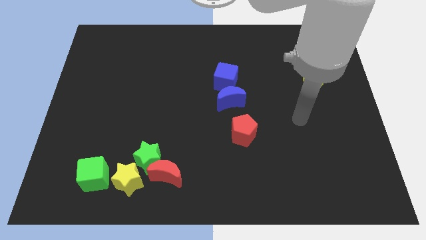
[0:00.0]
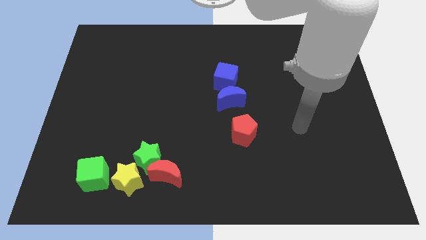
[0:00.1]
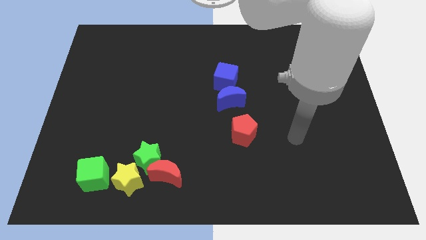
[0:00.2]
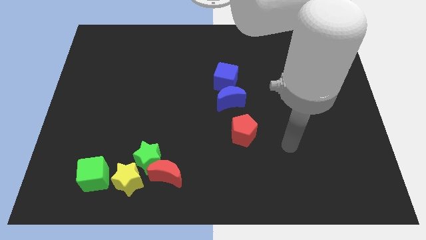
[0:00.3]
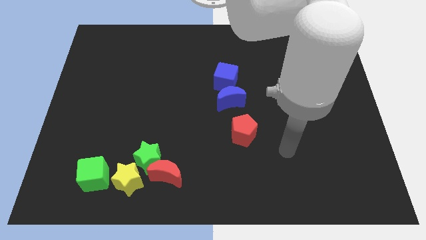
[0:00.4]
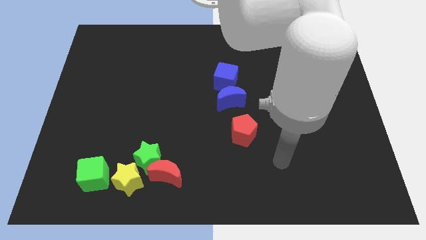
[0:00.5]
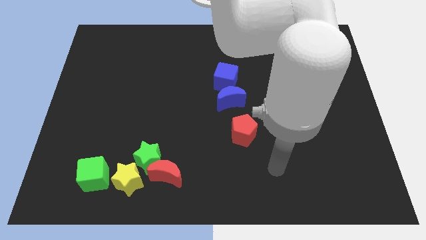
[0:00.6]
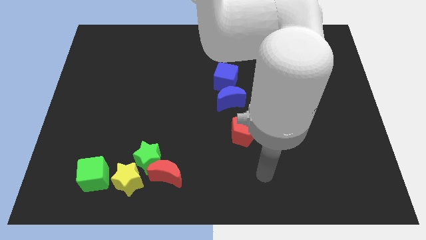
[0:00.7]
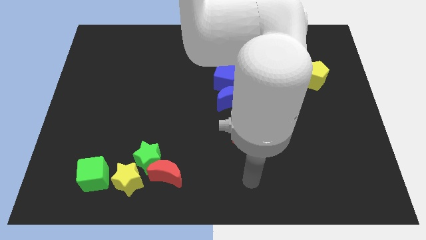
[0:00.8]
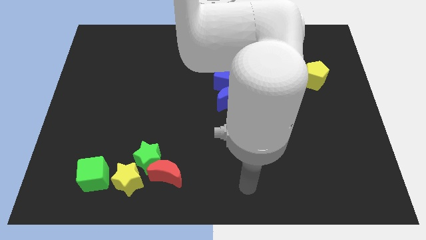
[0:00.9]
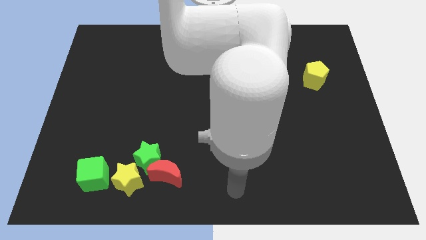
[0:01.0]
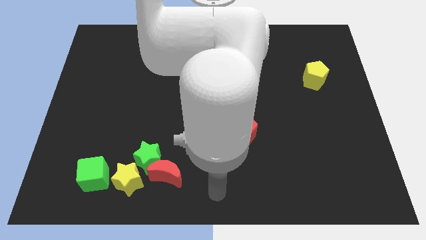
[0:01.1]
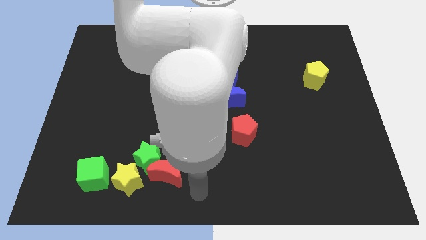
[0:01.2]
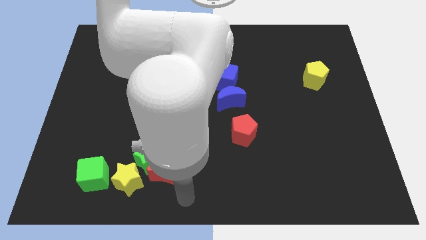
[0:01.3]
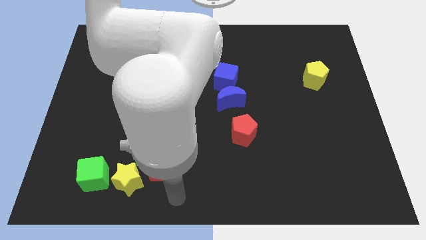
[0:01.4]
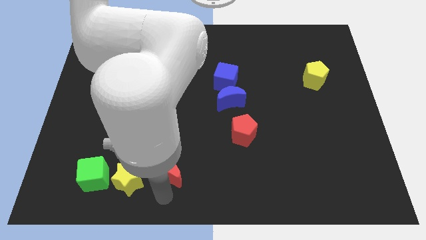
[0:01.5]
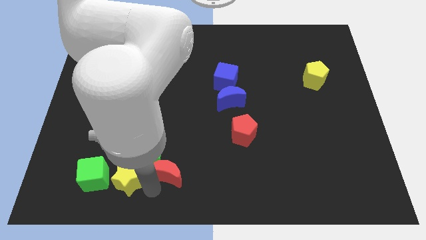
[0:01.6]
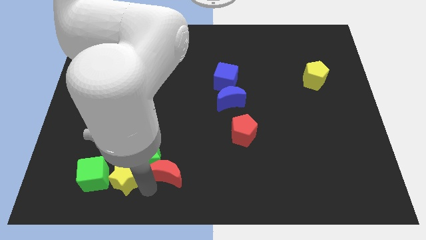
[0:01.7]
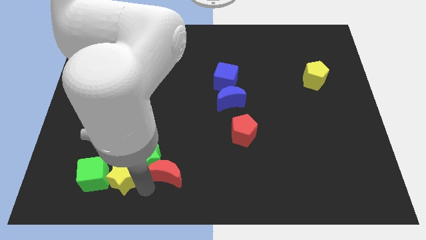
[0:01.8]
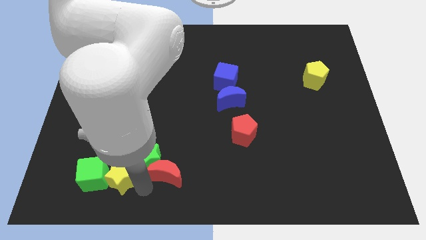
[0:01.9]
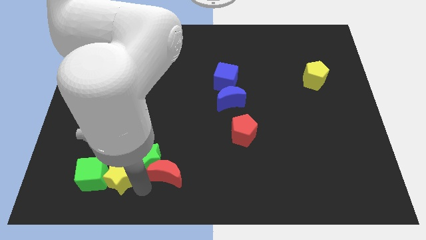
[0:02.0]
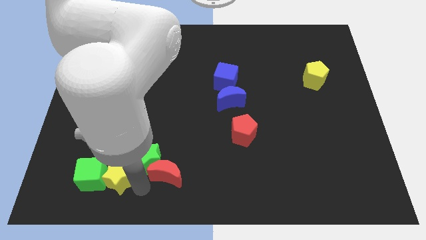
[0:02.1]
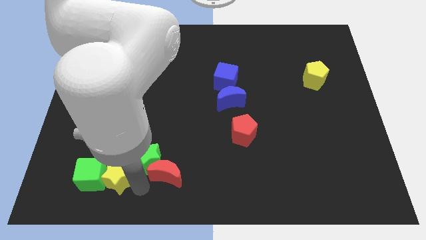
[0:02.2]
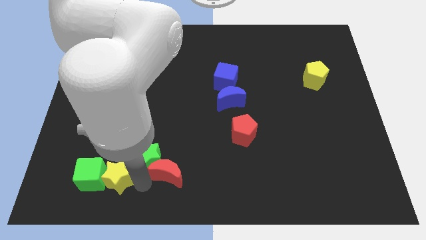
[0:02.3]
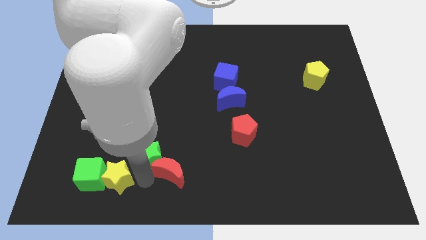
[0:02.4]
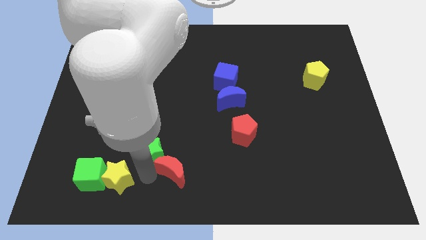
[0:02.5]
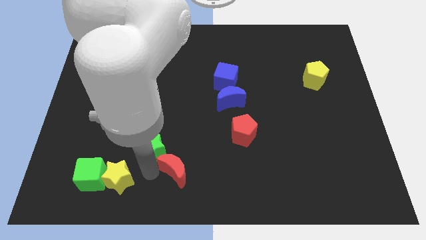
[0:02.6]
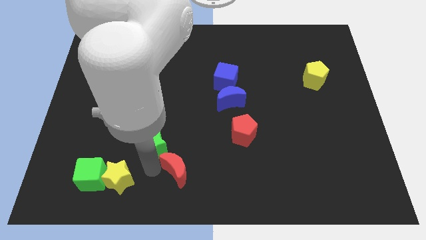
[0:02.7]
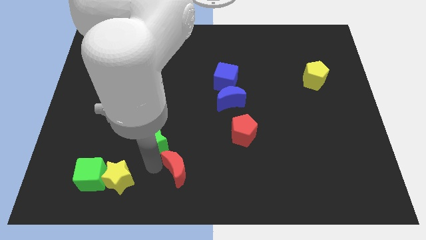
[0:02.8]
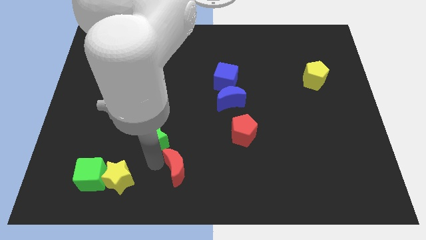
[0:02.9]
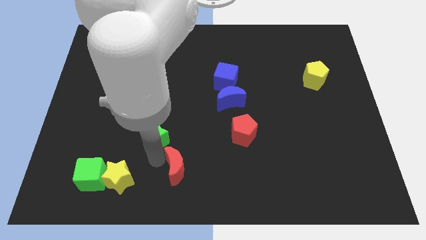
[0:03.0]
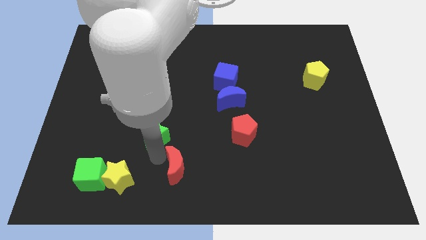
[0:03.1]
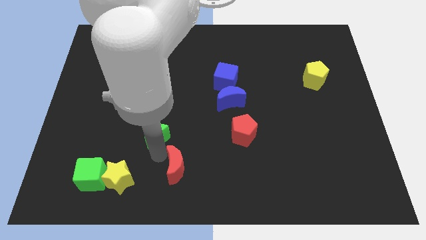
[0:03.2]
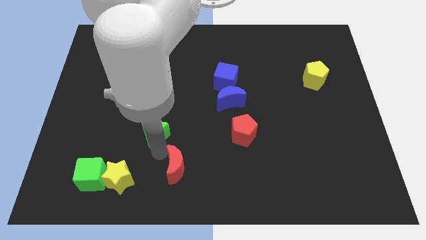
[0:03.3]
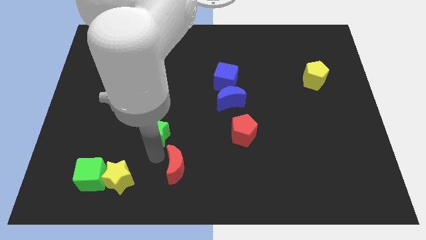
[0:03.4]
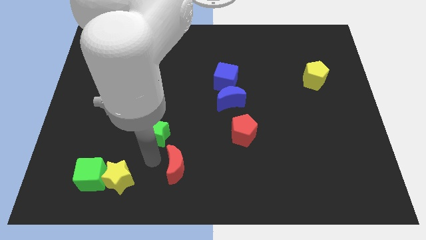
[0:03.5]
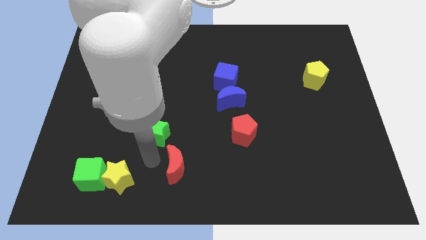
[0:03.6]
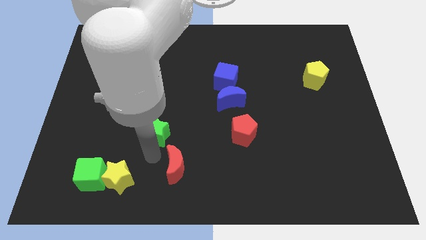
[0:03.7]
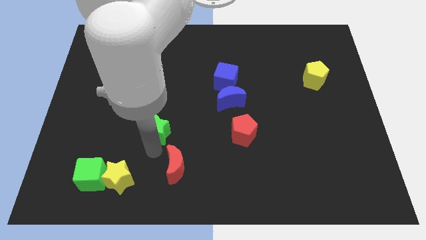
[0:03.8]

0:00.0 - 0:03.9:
separate the green star from the red moon and yellow star

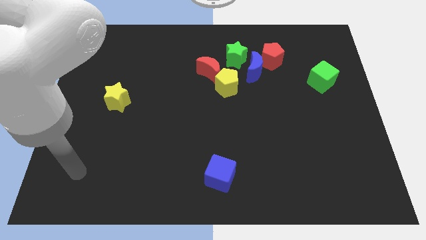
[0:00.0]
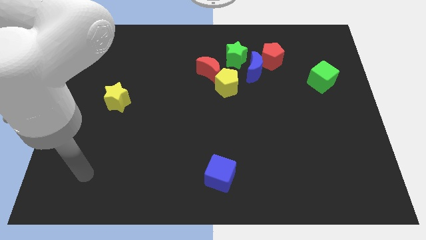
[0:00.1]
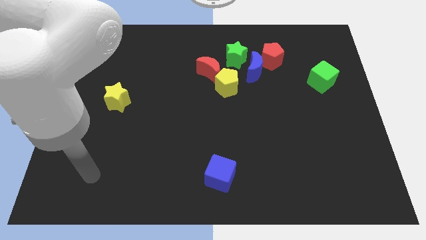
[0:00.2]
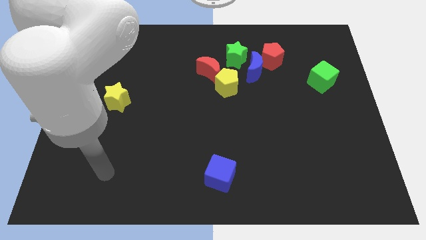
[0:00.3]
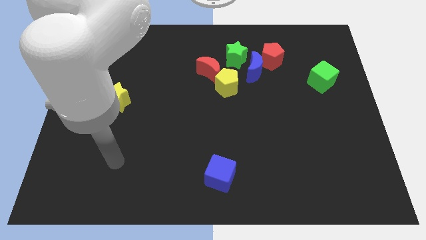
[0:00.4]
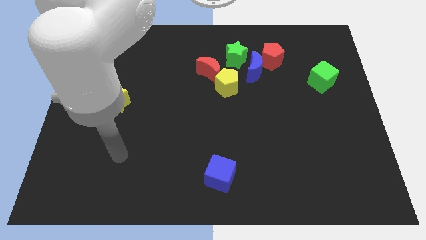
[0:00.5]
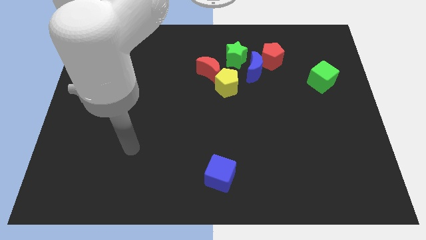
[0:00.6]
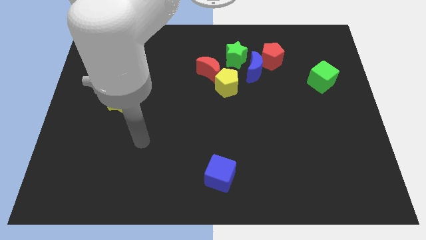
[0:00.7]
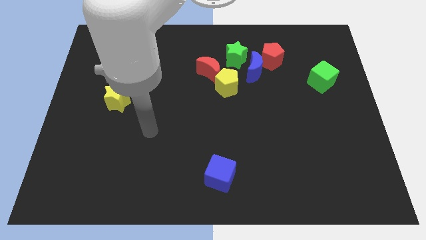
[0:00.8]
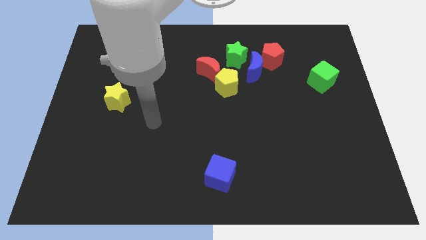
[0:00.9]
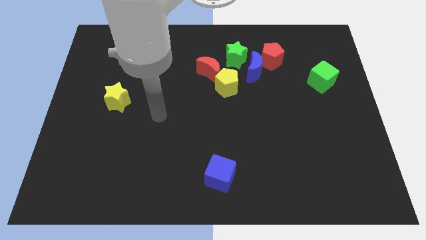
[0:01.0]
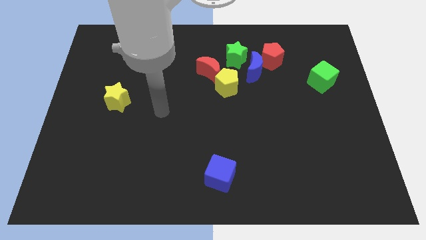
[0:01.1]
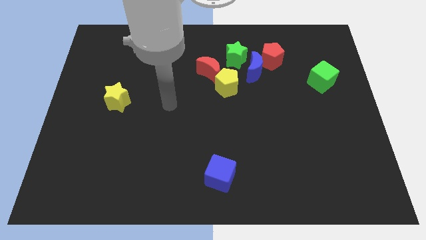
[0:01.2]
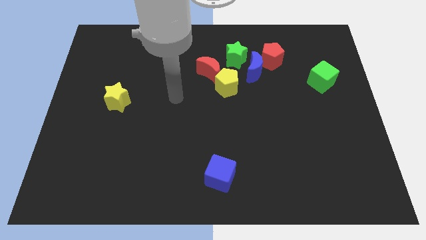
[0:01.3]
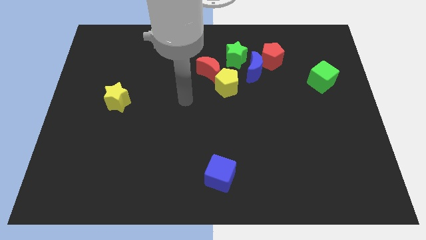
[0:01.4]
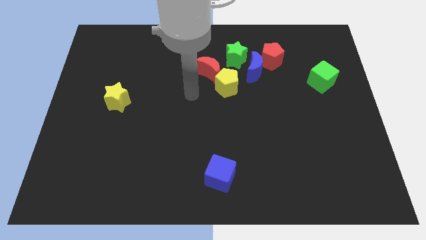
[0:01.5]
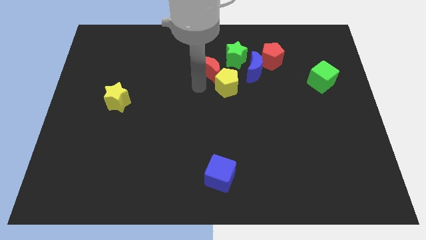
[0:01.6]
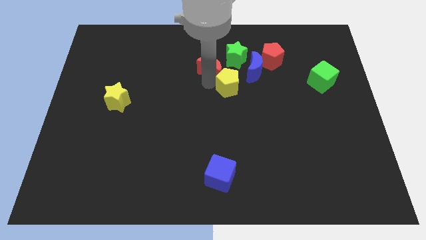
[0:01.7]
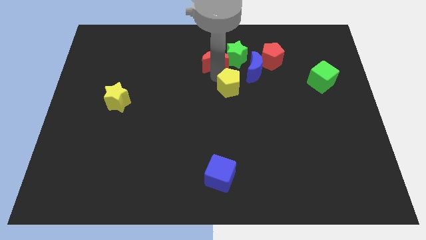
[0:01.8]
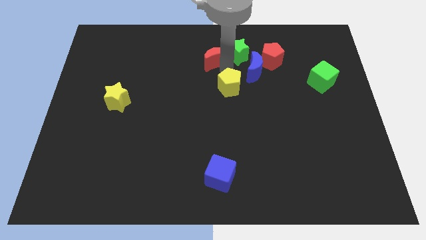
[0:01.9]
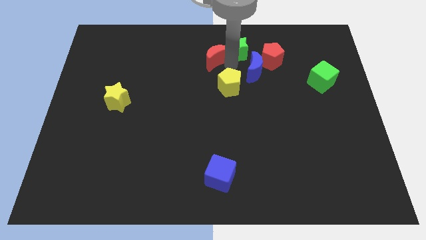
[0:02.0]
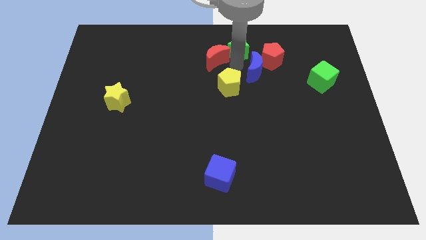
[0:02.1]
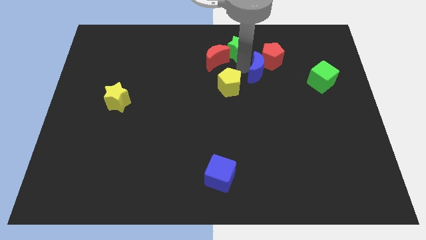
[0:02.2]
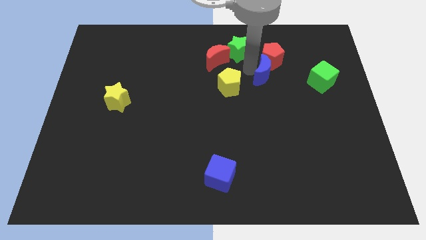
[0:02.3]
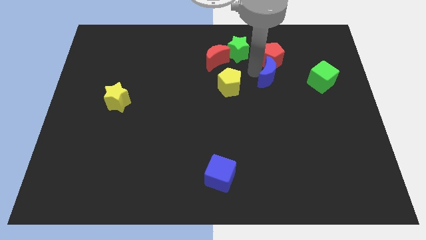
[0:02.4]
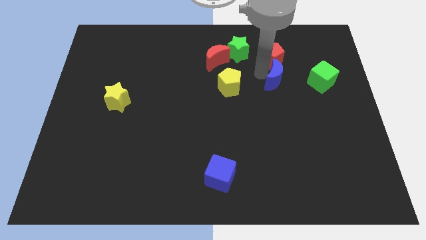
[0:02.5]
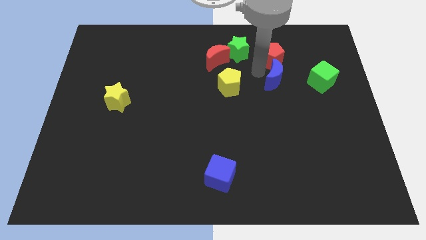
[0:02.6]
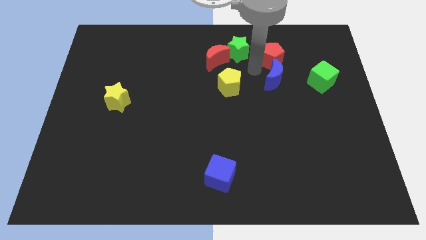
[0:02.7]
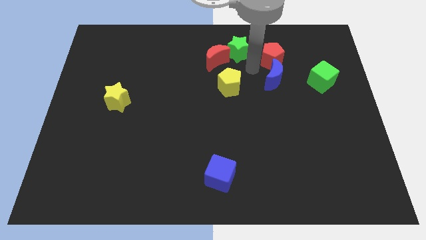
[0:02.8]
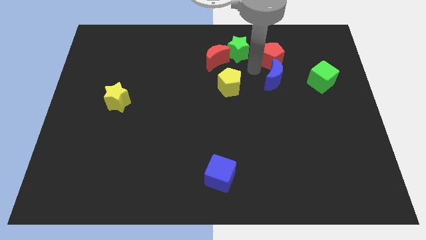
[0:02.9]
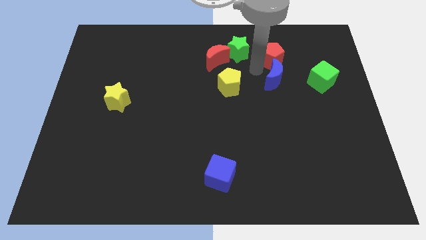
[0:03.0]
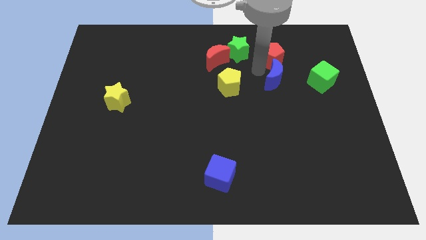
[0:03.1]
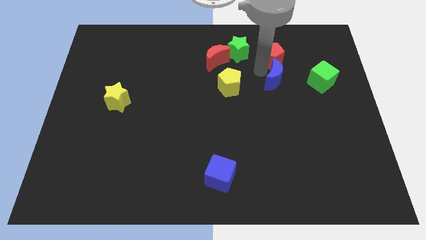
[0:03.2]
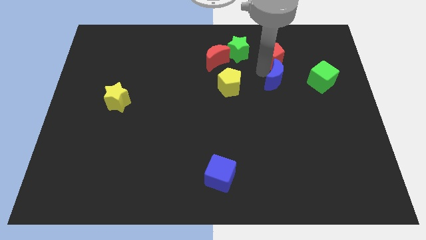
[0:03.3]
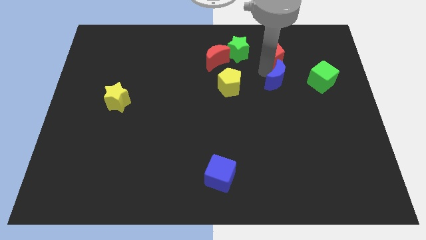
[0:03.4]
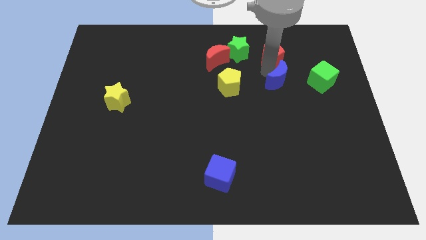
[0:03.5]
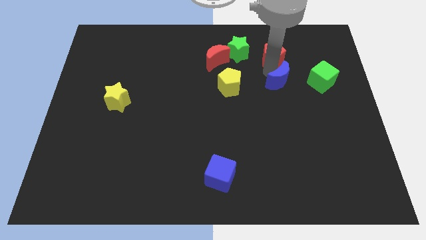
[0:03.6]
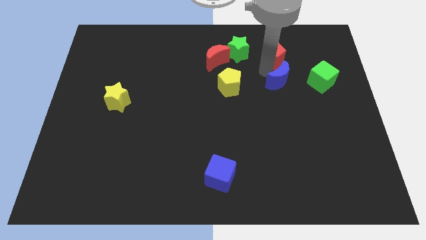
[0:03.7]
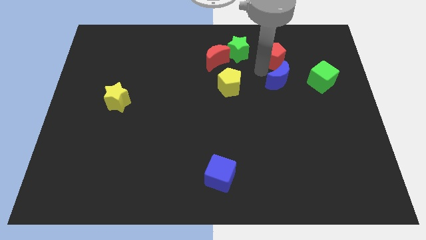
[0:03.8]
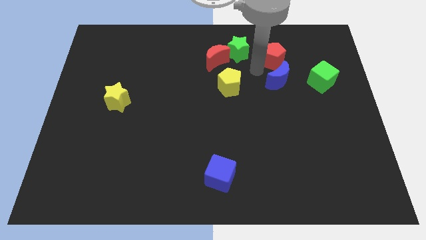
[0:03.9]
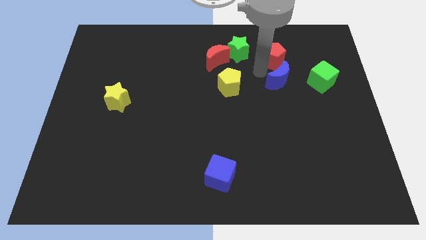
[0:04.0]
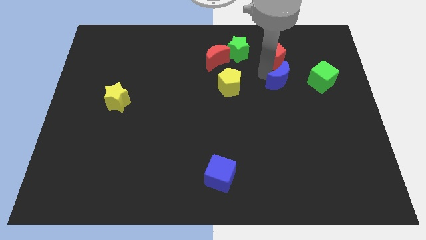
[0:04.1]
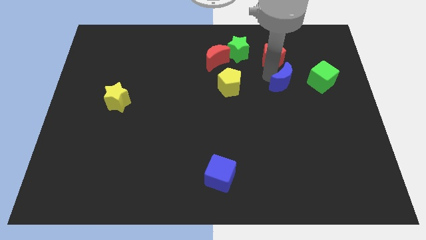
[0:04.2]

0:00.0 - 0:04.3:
move the blue moon away from the red pentagon, green star, and yellow pentagon

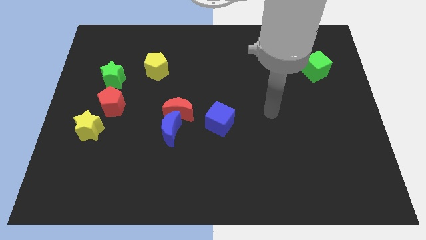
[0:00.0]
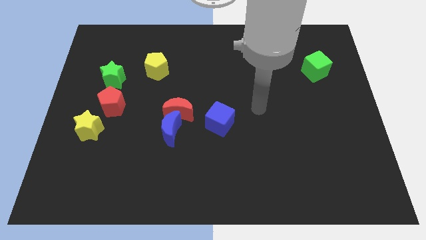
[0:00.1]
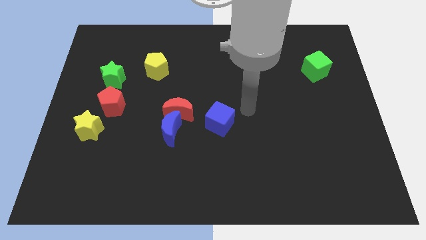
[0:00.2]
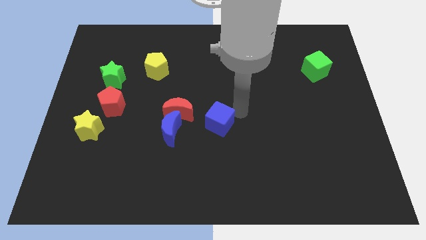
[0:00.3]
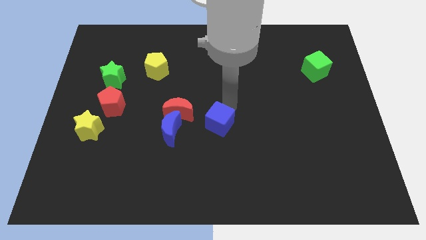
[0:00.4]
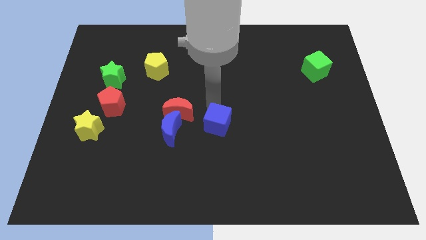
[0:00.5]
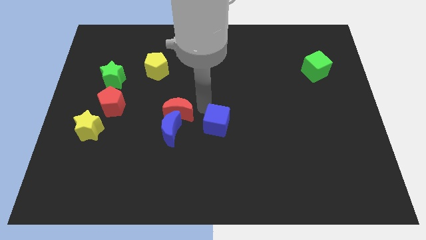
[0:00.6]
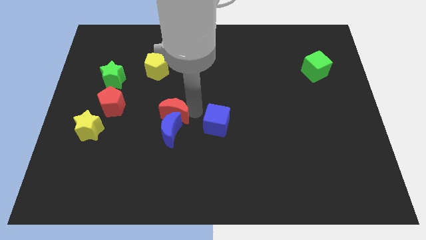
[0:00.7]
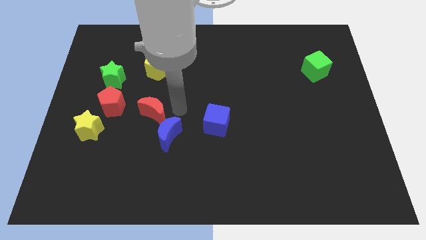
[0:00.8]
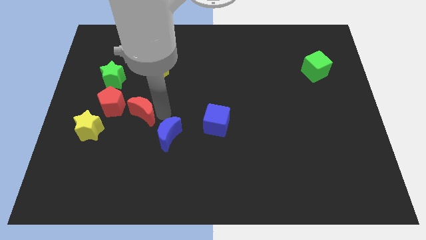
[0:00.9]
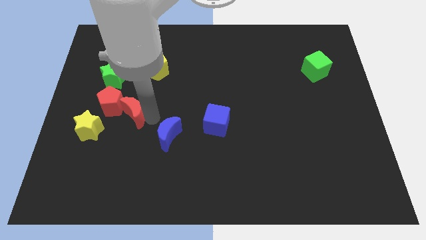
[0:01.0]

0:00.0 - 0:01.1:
separate the blue moon from the red moon

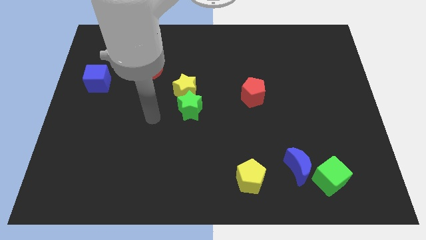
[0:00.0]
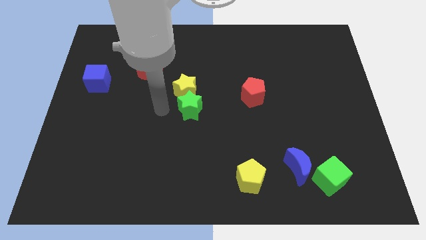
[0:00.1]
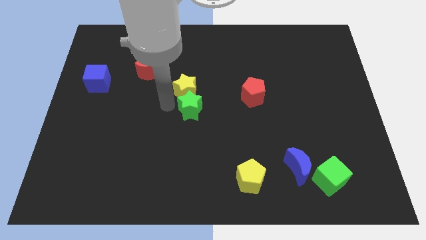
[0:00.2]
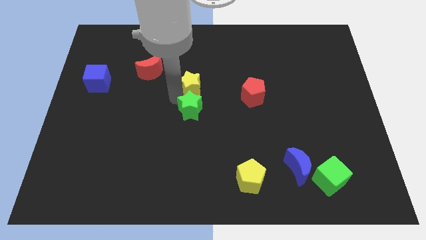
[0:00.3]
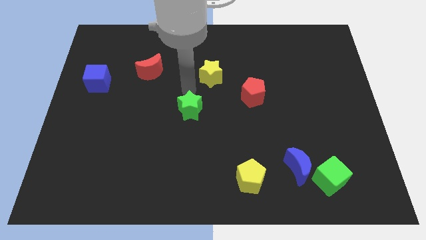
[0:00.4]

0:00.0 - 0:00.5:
pull the green star apart from the yellow star
